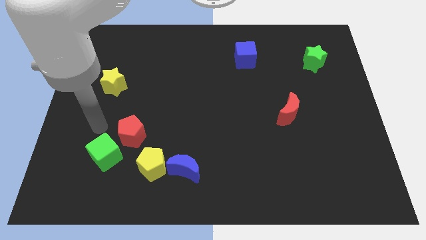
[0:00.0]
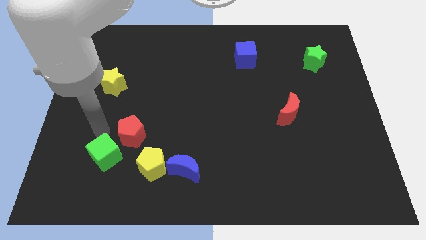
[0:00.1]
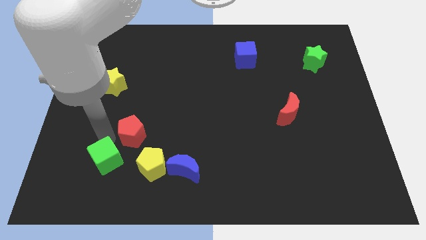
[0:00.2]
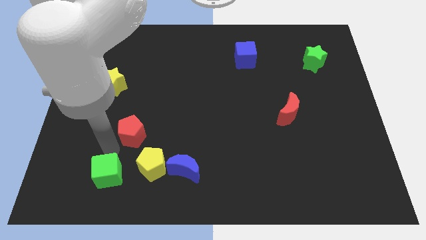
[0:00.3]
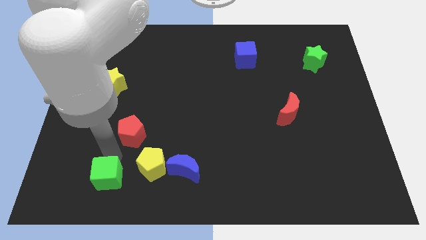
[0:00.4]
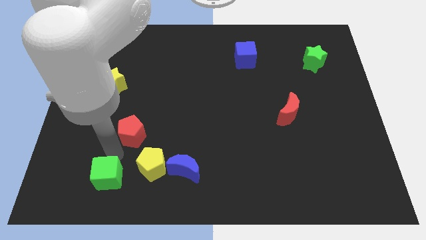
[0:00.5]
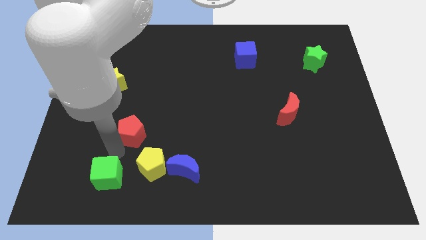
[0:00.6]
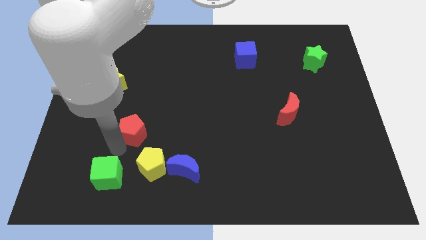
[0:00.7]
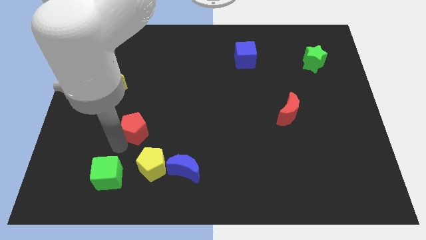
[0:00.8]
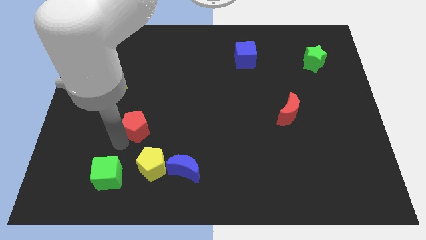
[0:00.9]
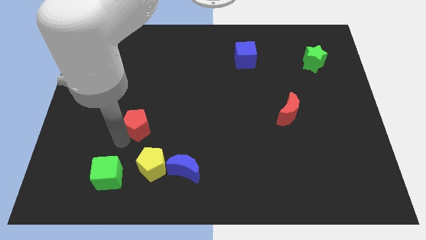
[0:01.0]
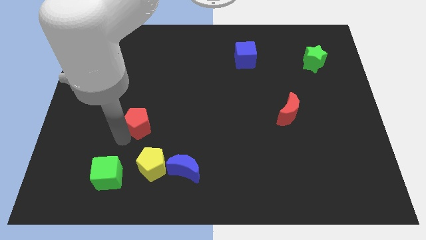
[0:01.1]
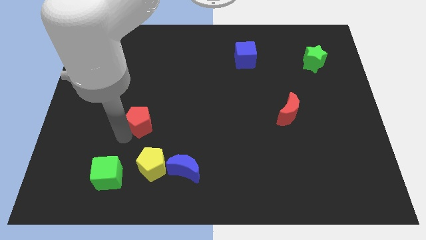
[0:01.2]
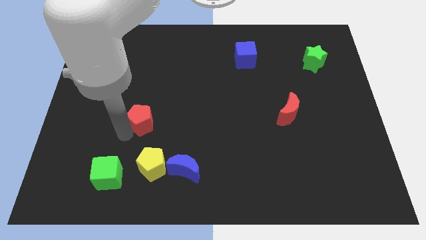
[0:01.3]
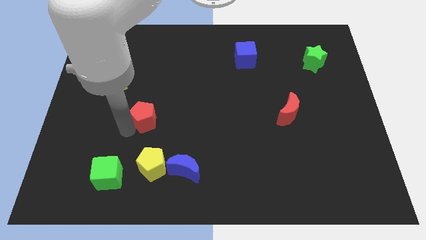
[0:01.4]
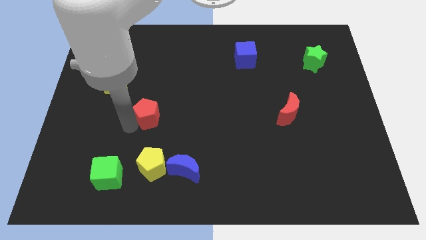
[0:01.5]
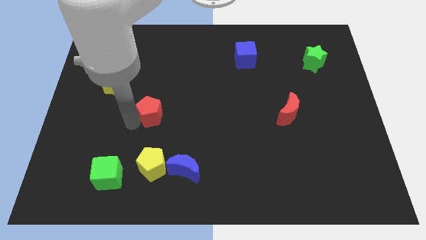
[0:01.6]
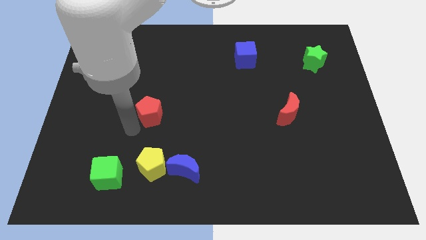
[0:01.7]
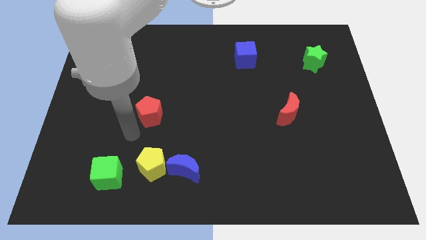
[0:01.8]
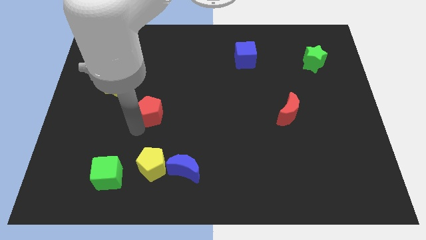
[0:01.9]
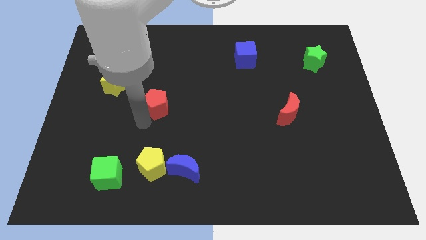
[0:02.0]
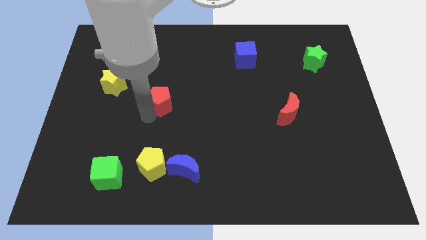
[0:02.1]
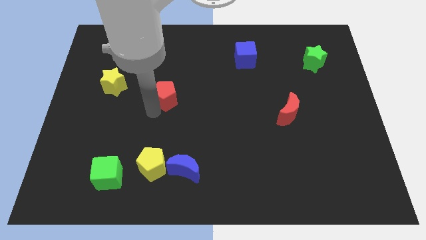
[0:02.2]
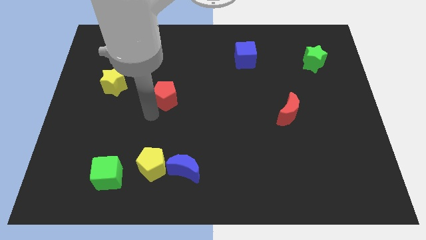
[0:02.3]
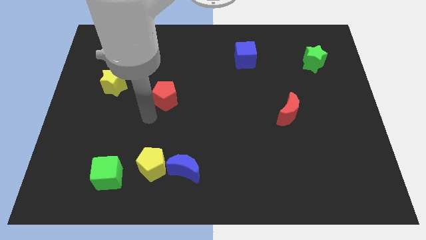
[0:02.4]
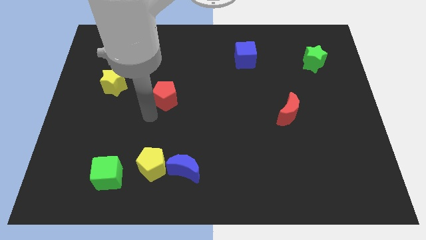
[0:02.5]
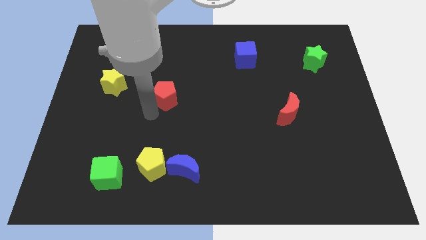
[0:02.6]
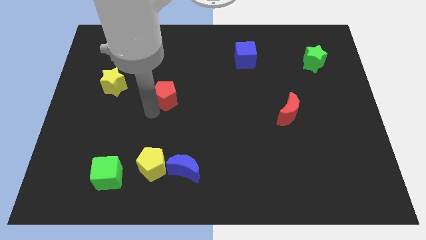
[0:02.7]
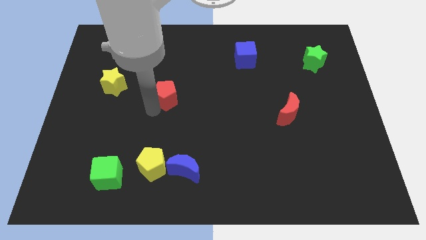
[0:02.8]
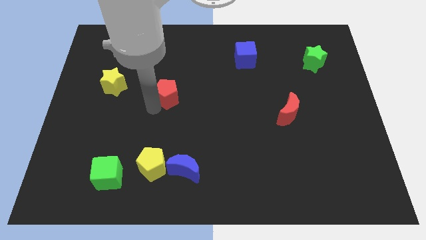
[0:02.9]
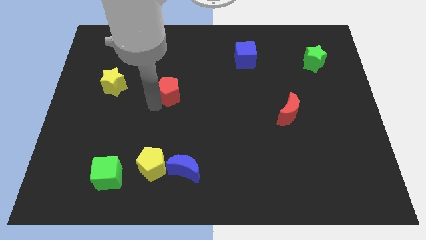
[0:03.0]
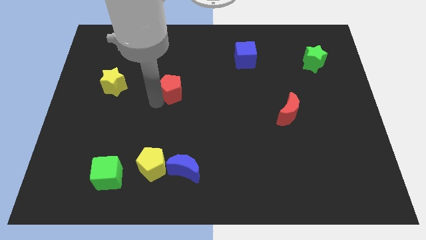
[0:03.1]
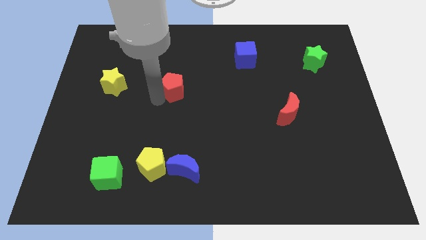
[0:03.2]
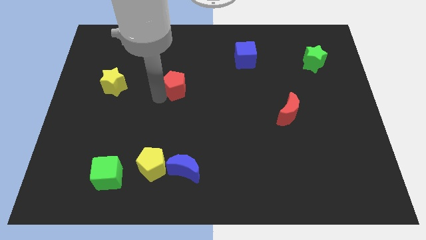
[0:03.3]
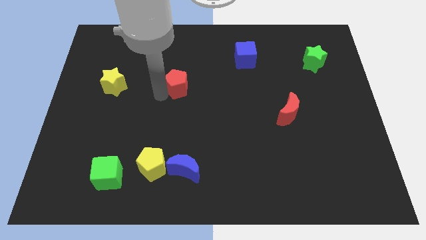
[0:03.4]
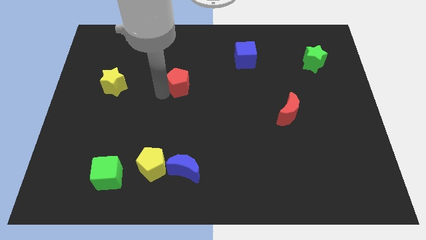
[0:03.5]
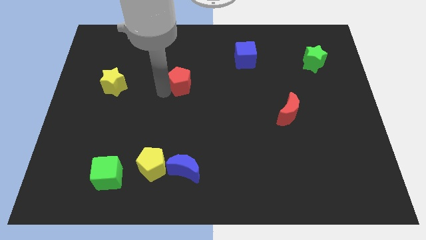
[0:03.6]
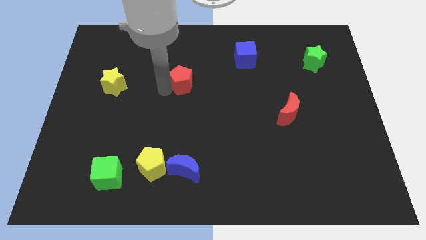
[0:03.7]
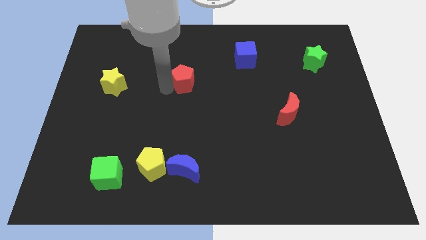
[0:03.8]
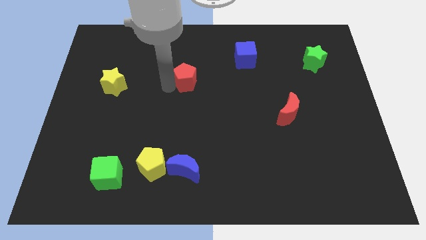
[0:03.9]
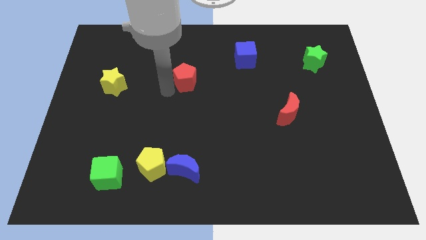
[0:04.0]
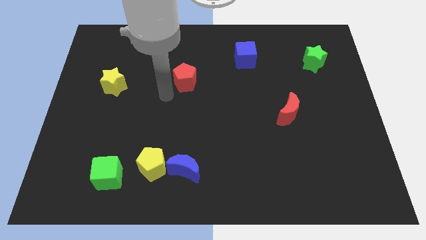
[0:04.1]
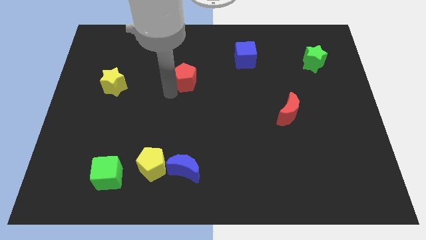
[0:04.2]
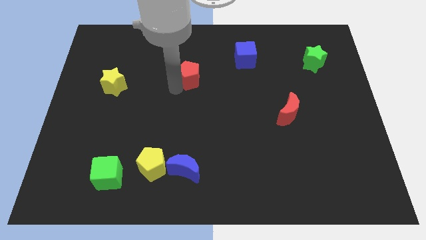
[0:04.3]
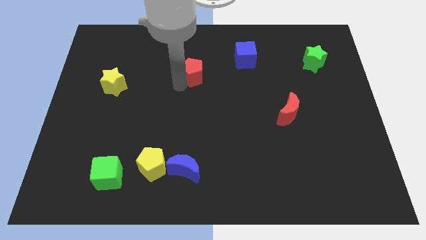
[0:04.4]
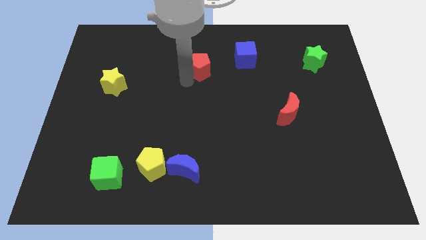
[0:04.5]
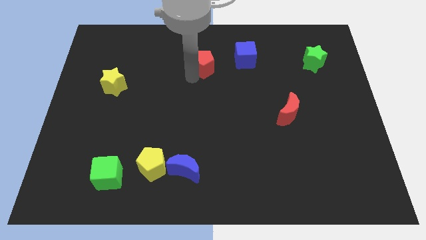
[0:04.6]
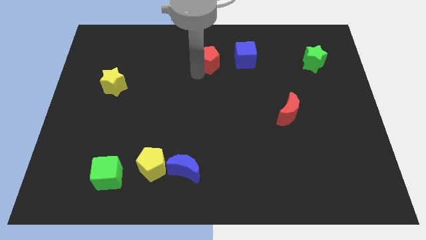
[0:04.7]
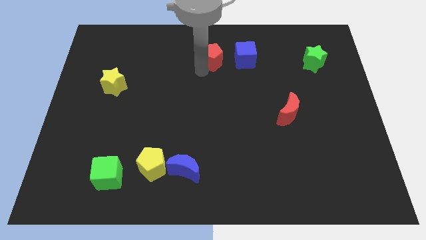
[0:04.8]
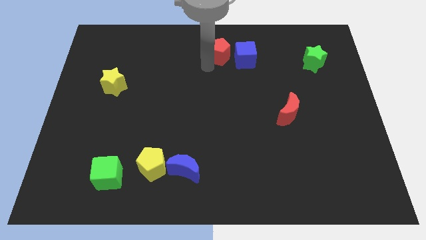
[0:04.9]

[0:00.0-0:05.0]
slide the red pentagon to the top side

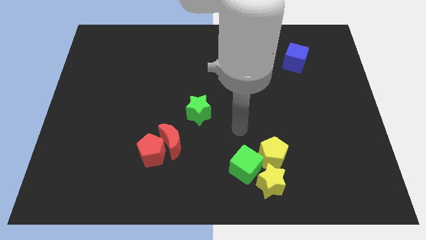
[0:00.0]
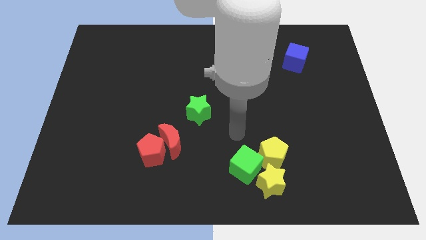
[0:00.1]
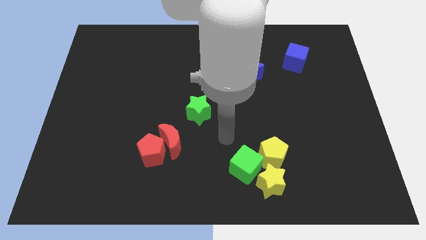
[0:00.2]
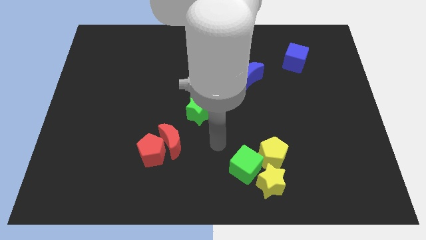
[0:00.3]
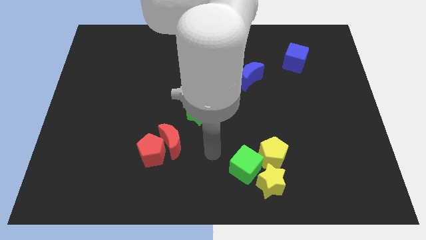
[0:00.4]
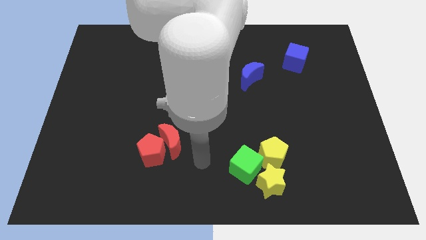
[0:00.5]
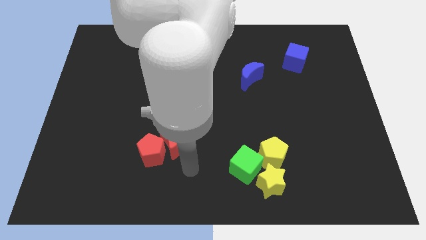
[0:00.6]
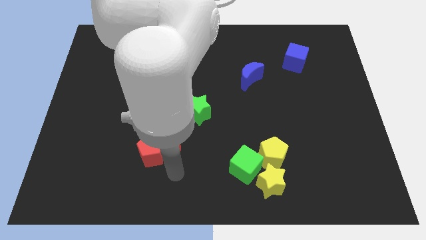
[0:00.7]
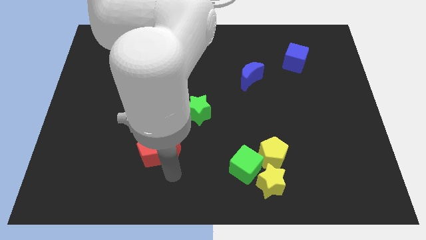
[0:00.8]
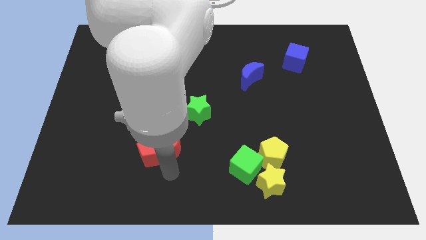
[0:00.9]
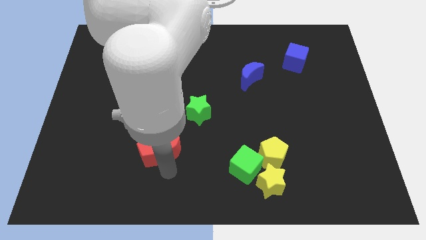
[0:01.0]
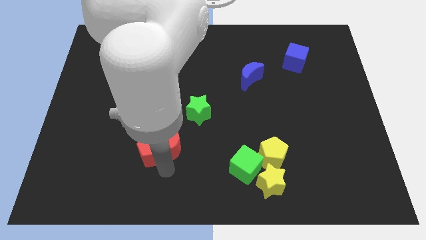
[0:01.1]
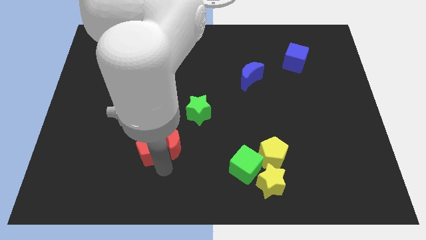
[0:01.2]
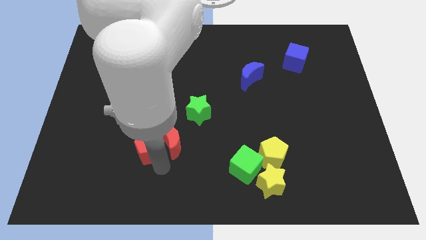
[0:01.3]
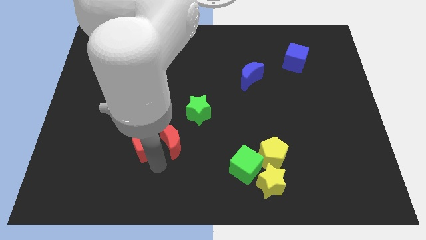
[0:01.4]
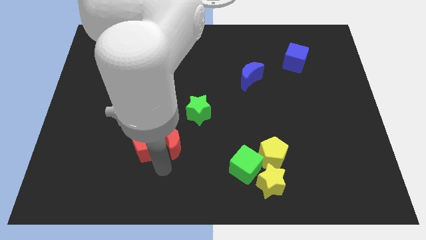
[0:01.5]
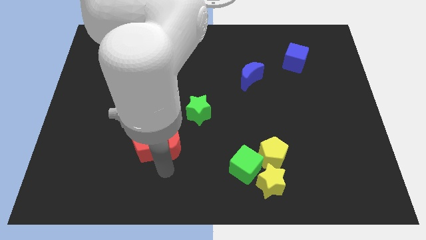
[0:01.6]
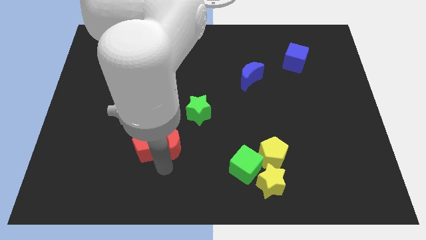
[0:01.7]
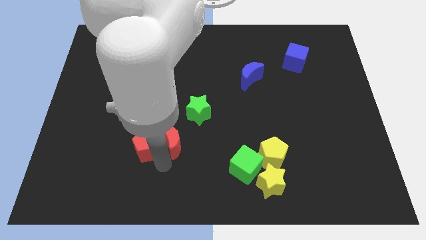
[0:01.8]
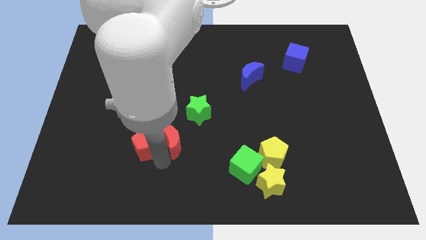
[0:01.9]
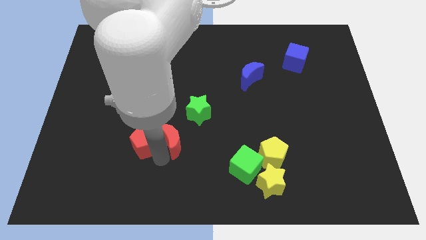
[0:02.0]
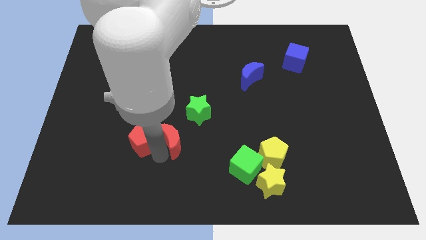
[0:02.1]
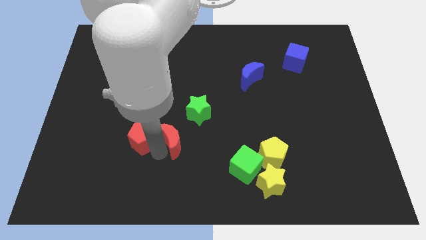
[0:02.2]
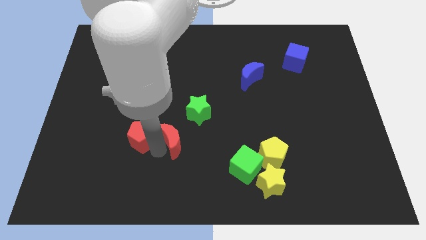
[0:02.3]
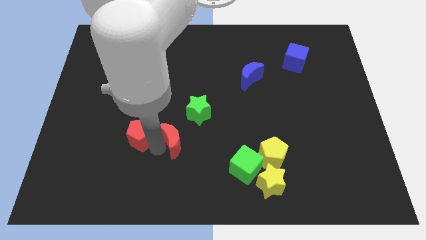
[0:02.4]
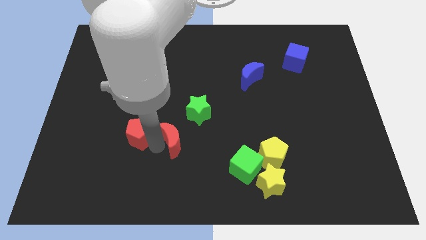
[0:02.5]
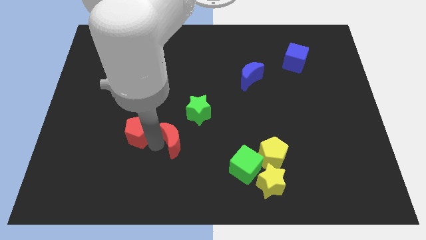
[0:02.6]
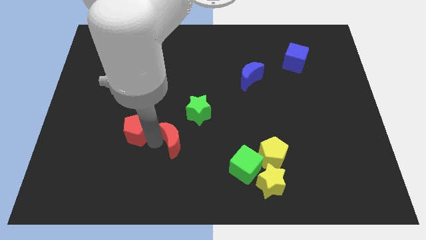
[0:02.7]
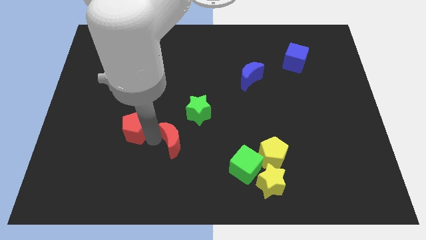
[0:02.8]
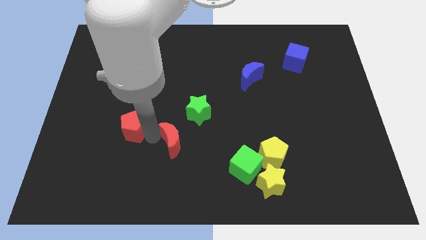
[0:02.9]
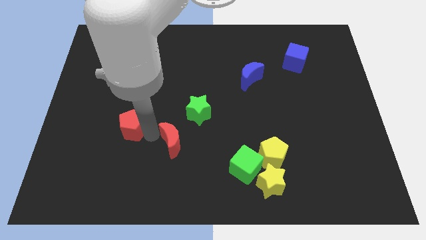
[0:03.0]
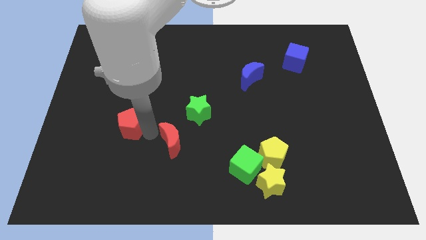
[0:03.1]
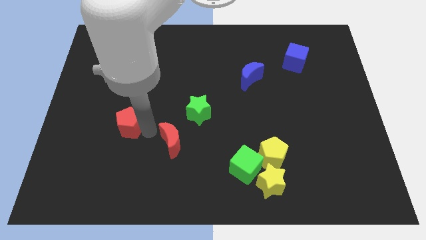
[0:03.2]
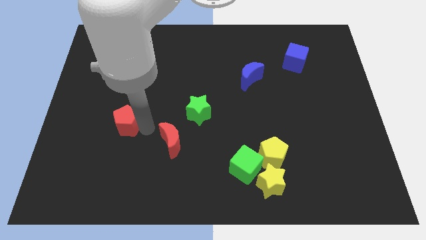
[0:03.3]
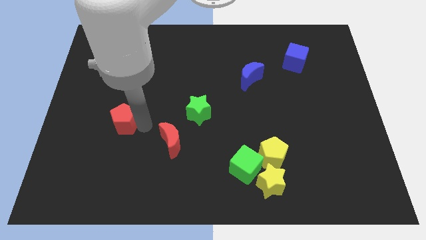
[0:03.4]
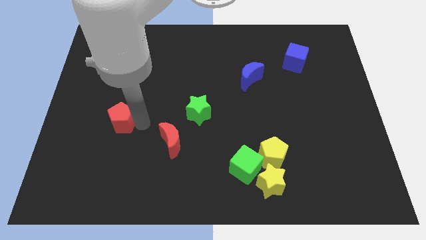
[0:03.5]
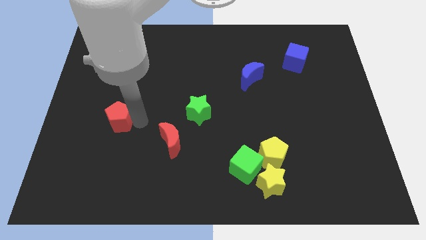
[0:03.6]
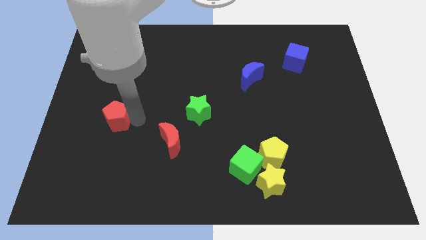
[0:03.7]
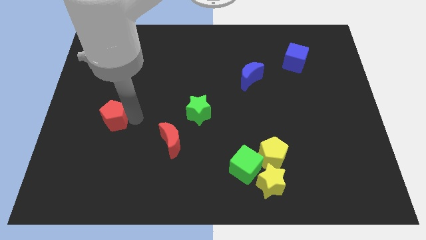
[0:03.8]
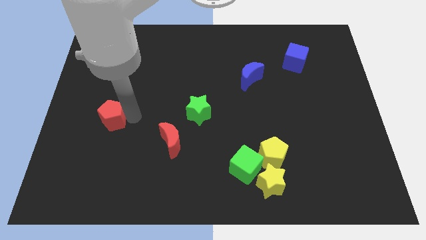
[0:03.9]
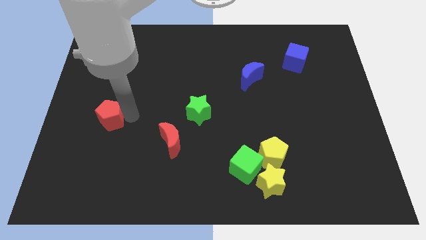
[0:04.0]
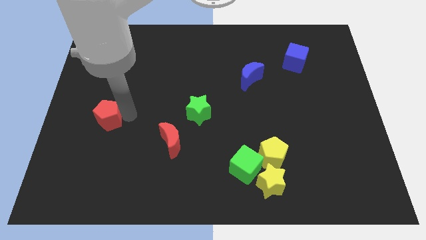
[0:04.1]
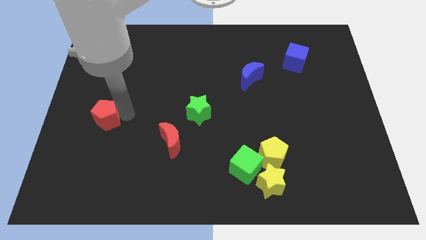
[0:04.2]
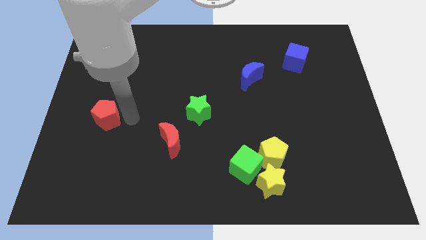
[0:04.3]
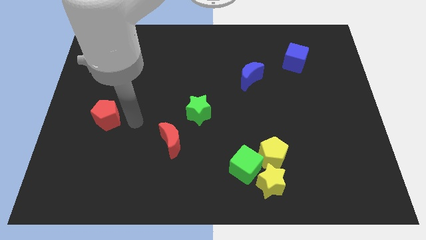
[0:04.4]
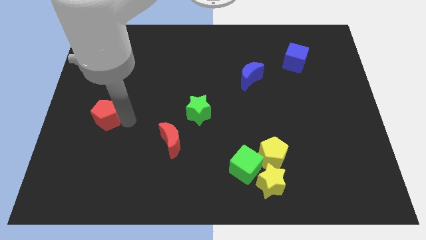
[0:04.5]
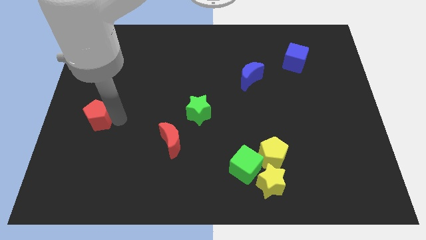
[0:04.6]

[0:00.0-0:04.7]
slide the red pentagon to the left side
